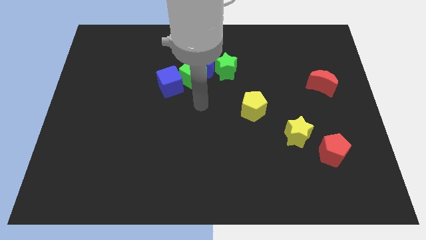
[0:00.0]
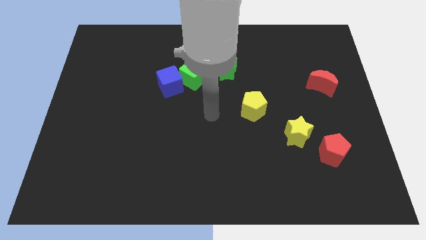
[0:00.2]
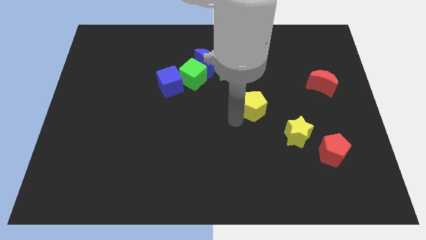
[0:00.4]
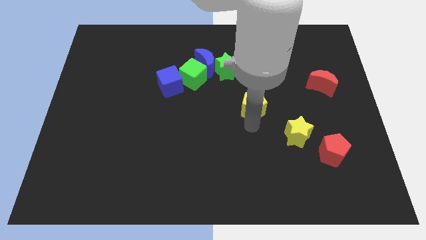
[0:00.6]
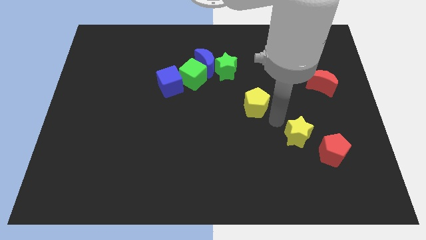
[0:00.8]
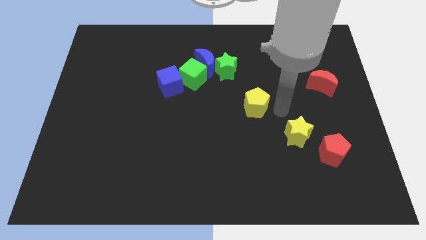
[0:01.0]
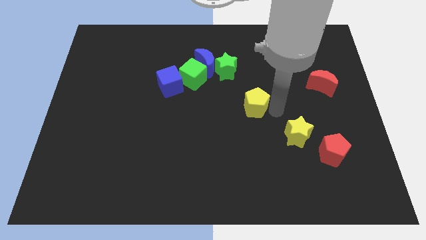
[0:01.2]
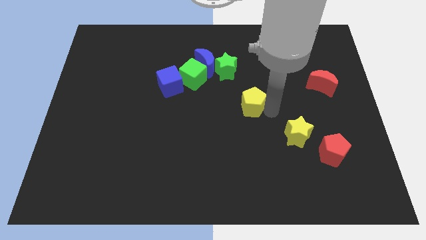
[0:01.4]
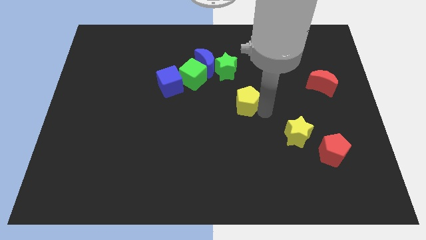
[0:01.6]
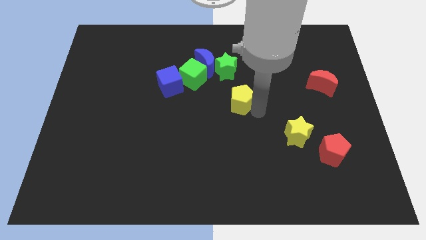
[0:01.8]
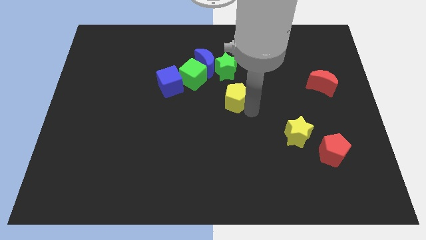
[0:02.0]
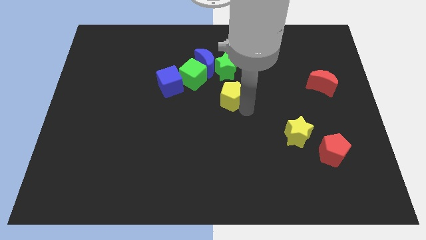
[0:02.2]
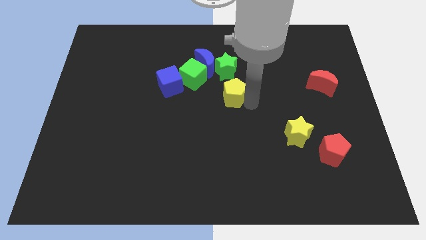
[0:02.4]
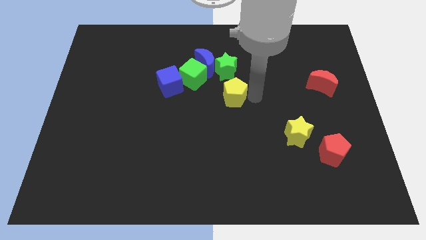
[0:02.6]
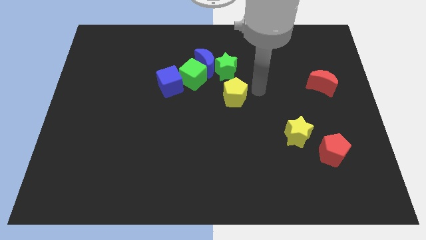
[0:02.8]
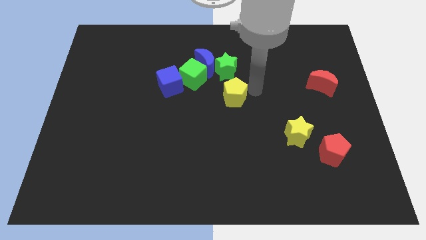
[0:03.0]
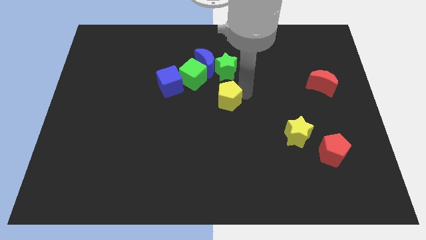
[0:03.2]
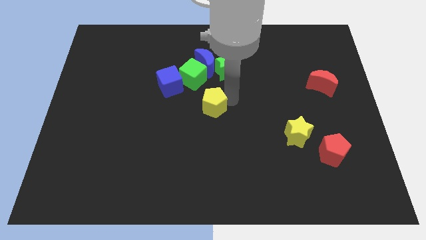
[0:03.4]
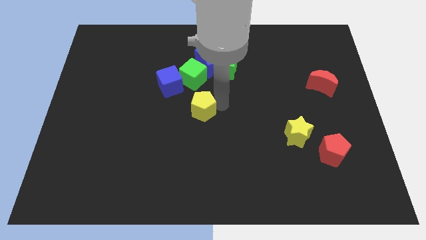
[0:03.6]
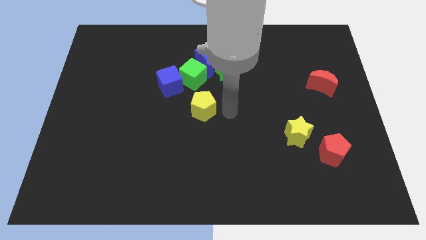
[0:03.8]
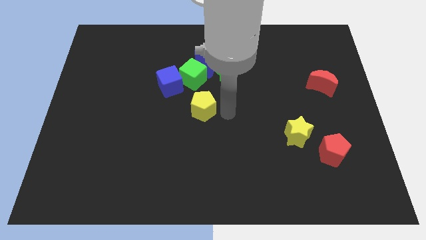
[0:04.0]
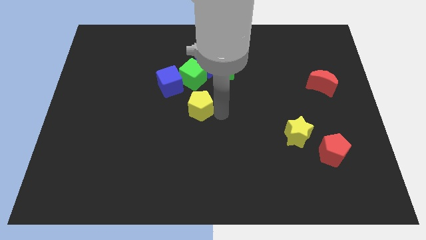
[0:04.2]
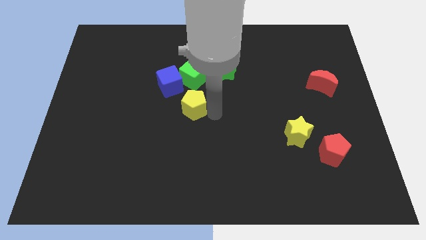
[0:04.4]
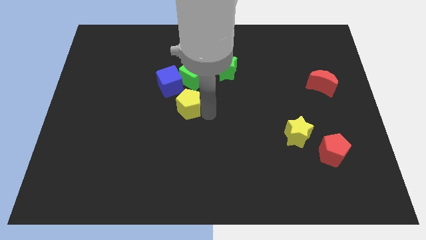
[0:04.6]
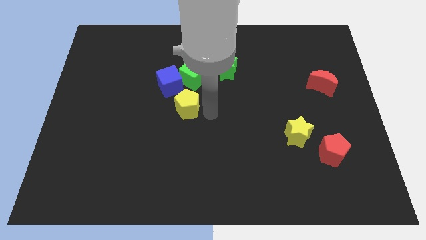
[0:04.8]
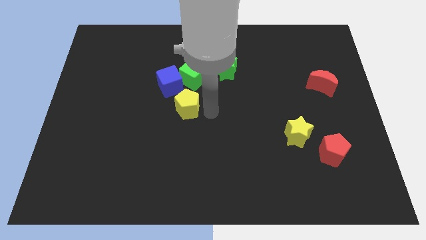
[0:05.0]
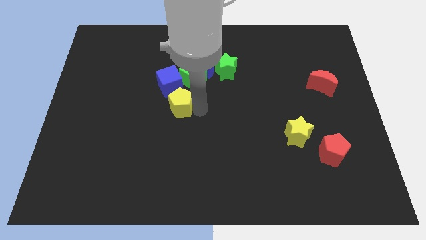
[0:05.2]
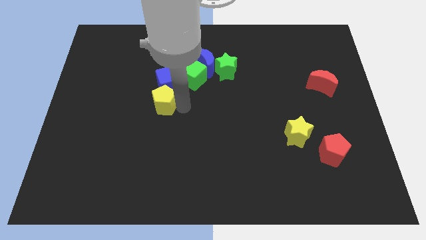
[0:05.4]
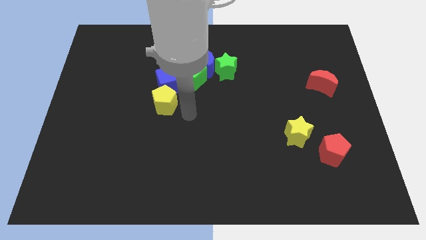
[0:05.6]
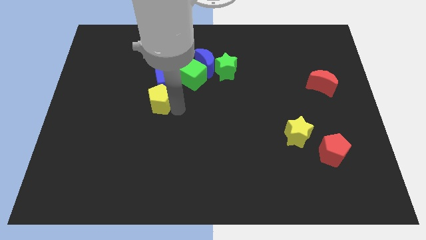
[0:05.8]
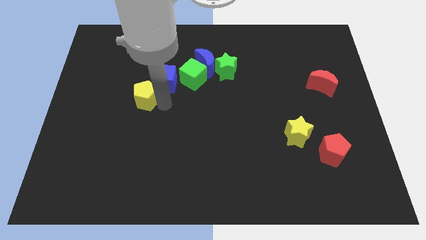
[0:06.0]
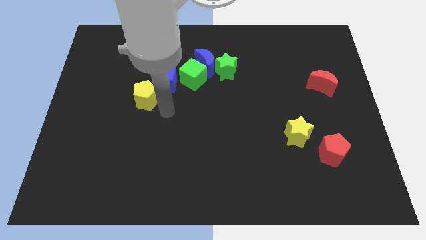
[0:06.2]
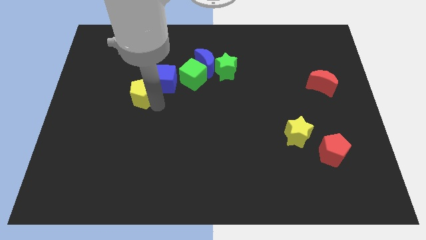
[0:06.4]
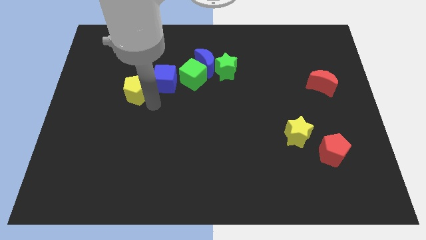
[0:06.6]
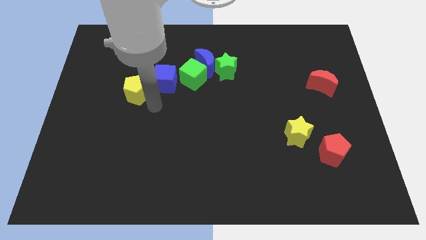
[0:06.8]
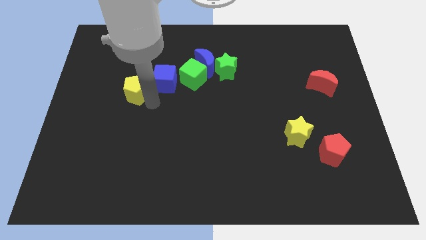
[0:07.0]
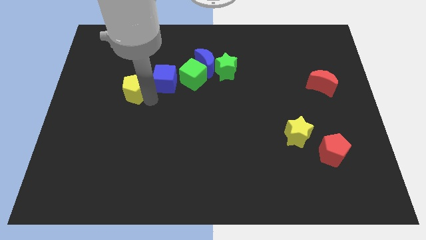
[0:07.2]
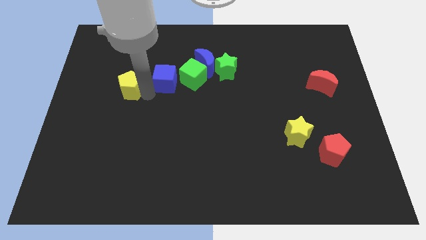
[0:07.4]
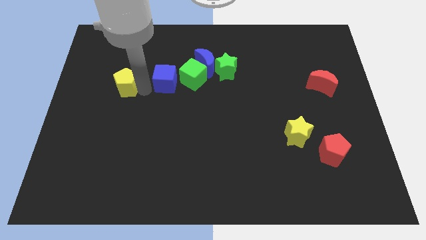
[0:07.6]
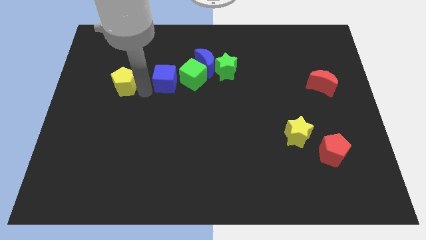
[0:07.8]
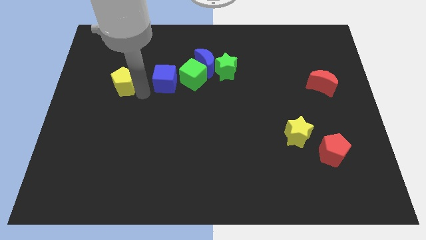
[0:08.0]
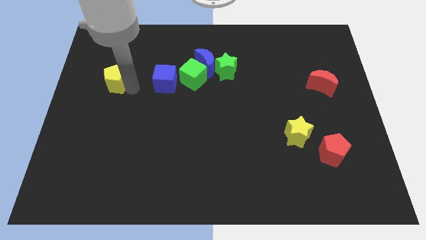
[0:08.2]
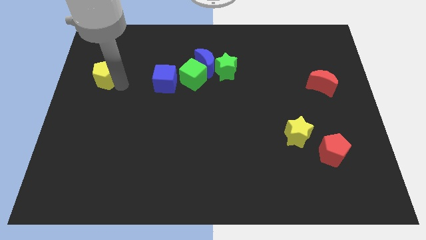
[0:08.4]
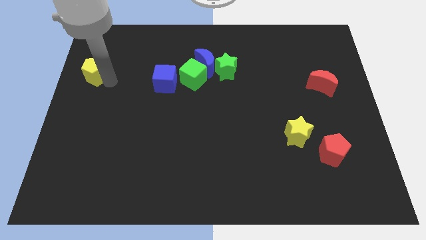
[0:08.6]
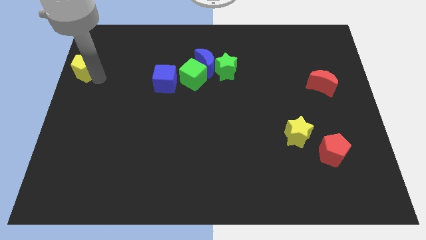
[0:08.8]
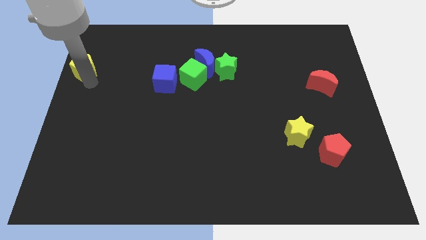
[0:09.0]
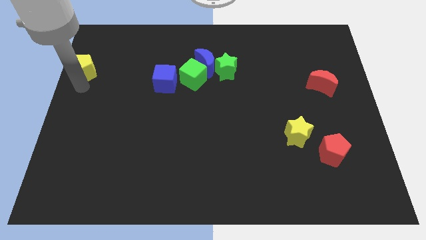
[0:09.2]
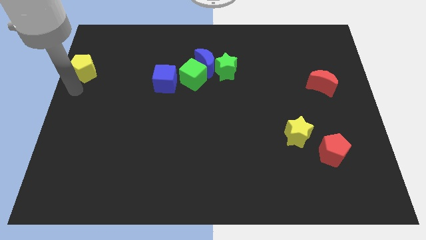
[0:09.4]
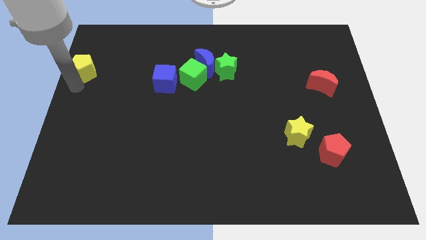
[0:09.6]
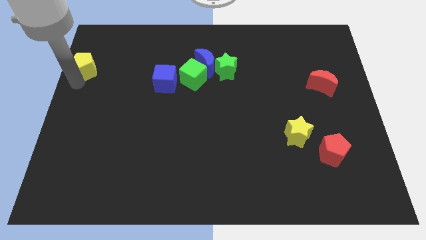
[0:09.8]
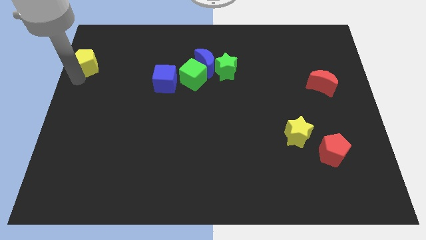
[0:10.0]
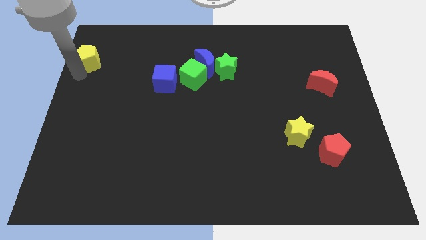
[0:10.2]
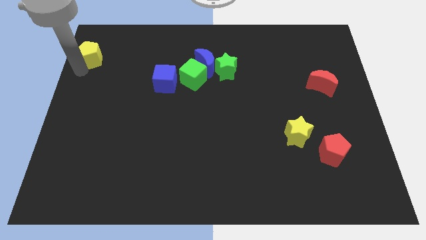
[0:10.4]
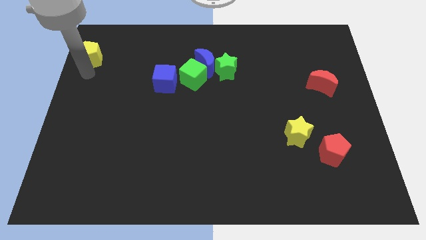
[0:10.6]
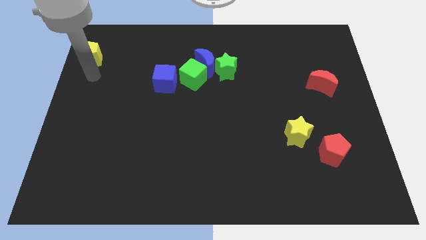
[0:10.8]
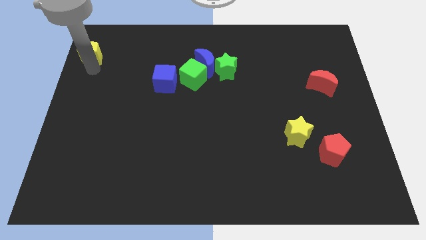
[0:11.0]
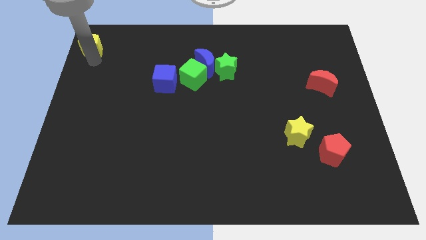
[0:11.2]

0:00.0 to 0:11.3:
move the yellow pentagon to the top left corner

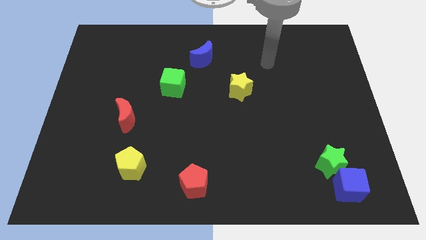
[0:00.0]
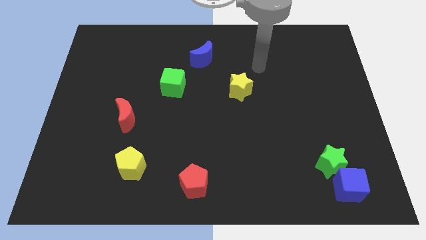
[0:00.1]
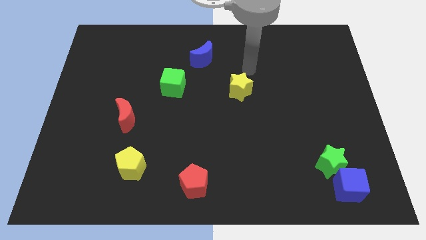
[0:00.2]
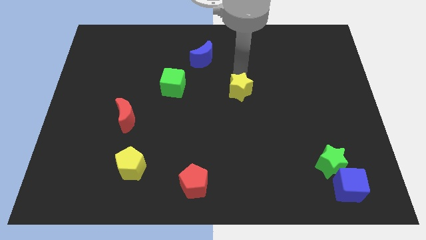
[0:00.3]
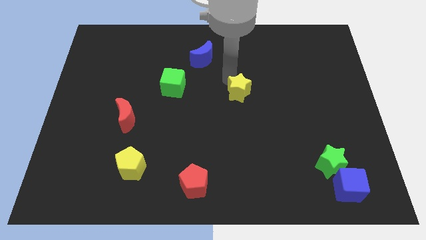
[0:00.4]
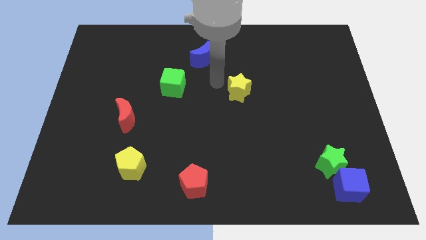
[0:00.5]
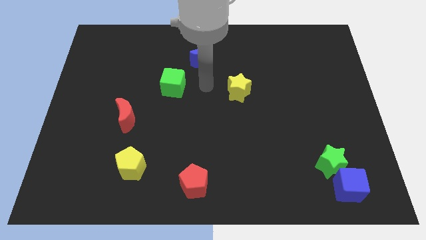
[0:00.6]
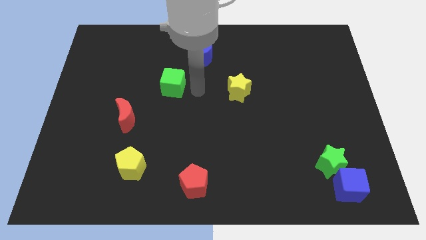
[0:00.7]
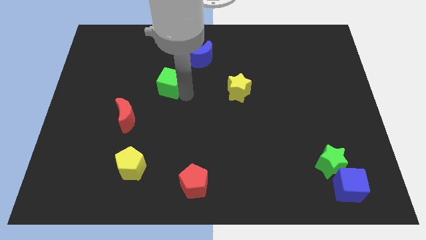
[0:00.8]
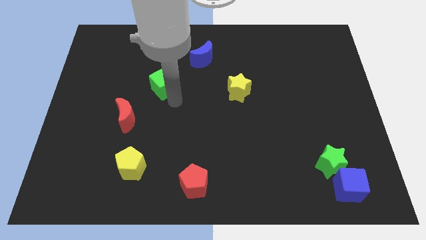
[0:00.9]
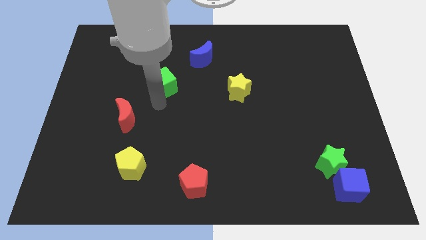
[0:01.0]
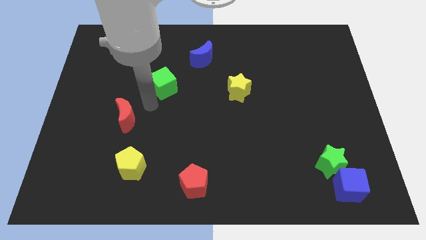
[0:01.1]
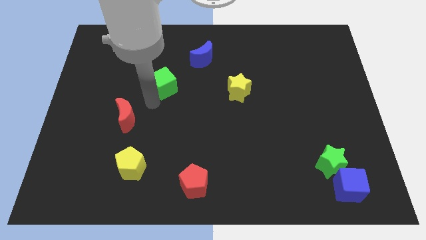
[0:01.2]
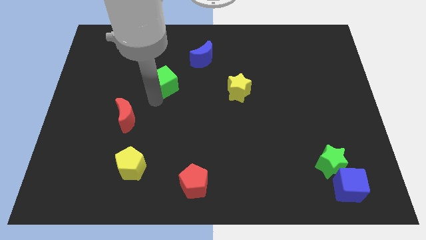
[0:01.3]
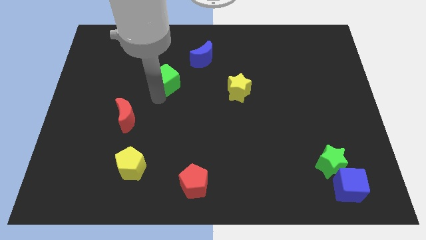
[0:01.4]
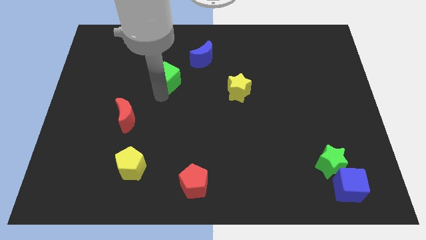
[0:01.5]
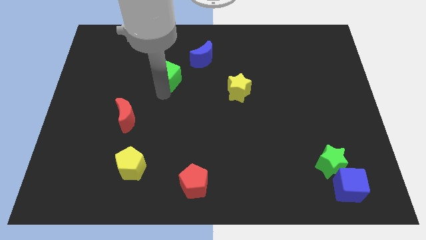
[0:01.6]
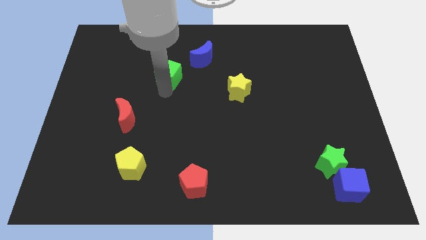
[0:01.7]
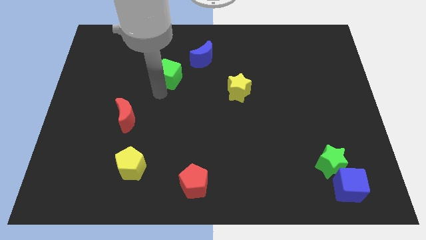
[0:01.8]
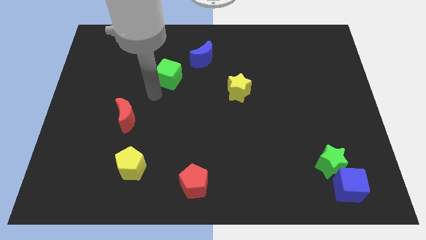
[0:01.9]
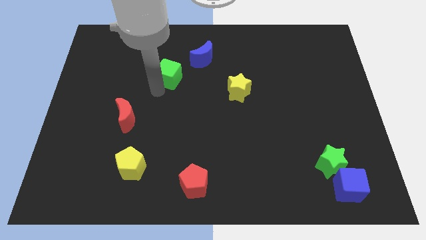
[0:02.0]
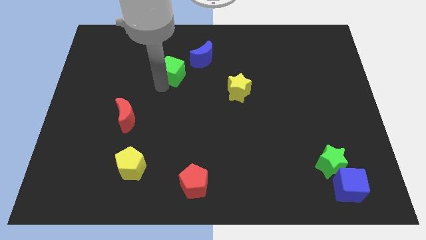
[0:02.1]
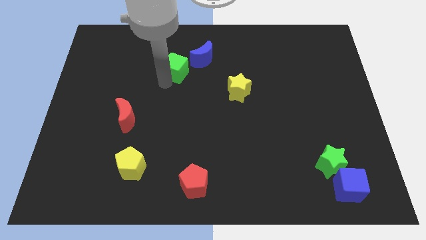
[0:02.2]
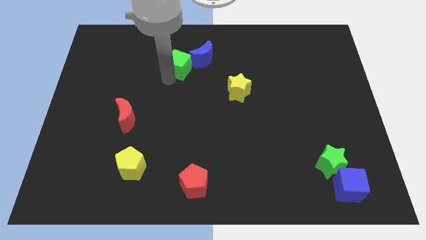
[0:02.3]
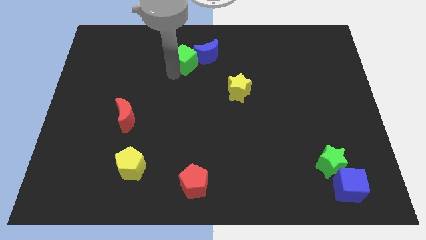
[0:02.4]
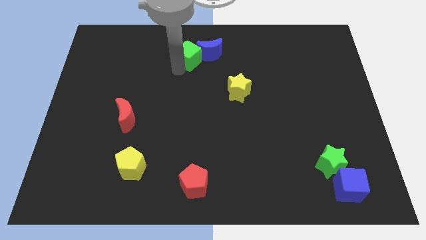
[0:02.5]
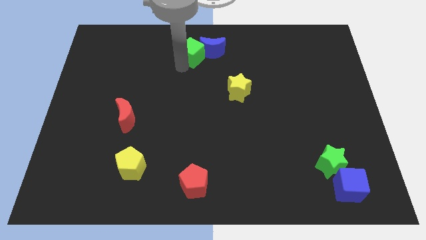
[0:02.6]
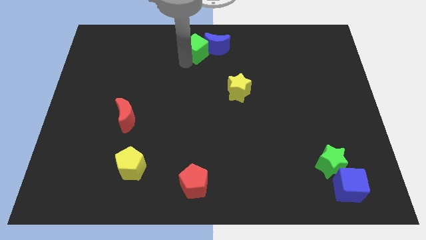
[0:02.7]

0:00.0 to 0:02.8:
slide the green cube to the towards your base
